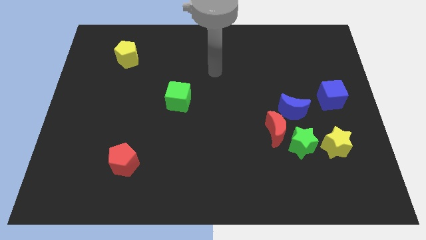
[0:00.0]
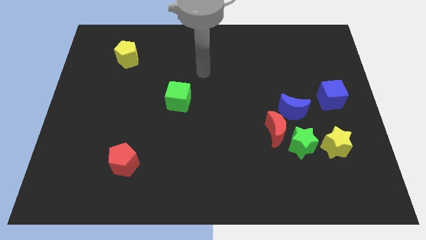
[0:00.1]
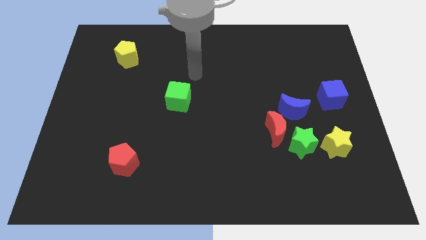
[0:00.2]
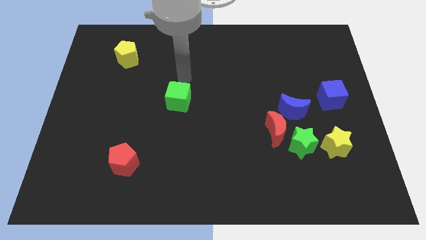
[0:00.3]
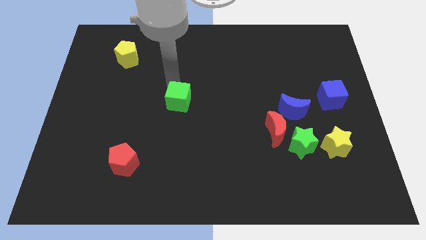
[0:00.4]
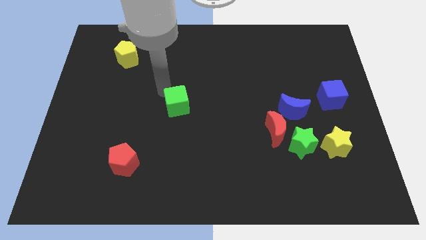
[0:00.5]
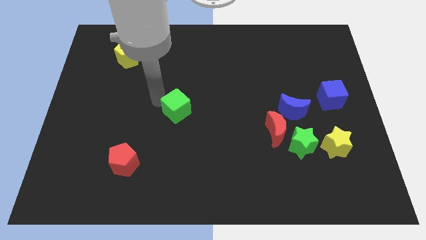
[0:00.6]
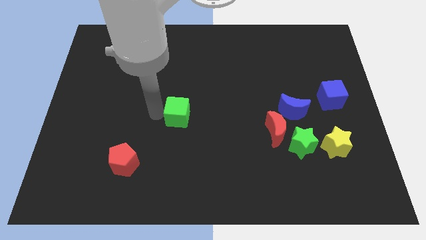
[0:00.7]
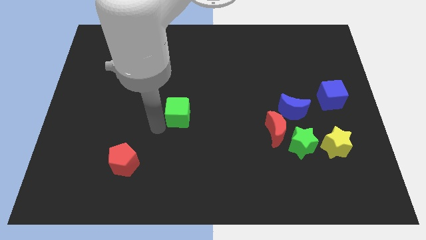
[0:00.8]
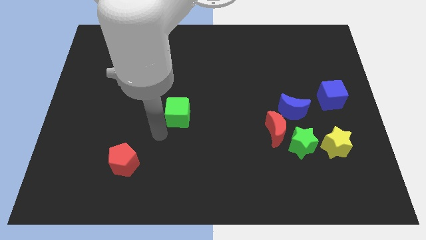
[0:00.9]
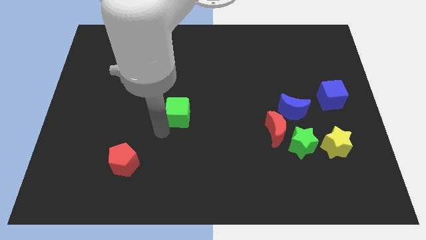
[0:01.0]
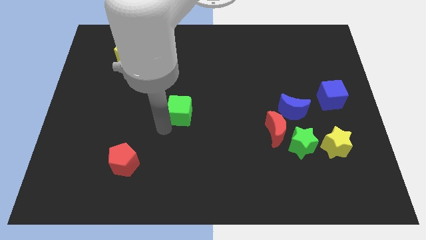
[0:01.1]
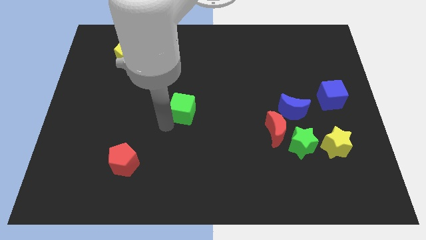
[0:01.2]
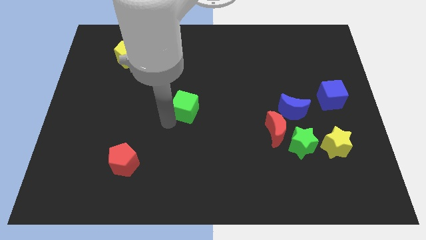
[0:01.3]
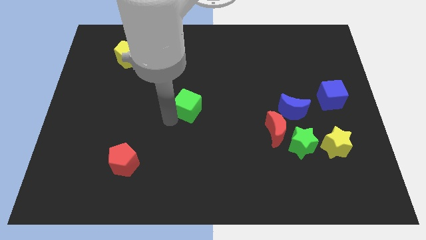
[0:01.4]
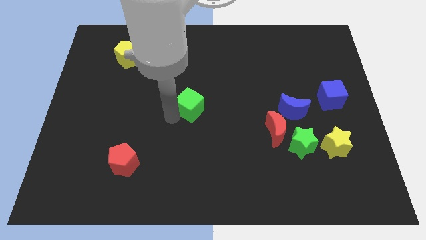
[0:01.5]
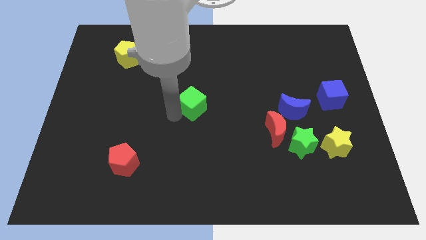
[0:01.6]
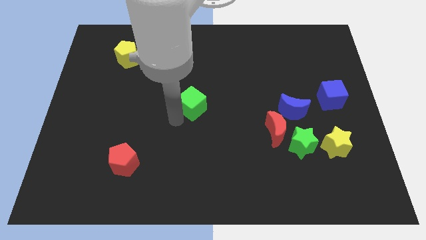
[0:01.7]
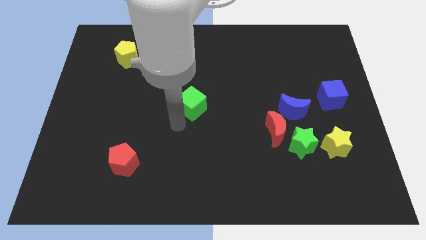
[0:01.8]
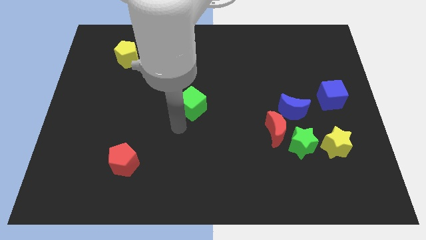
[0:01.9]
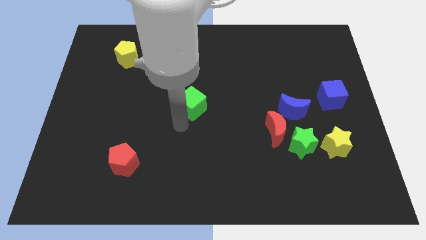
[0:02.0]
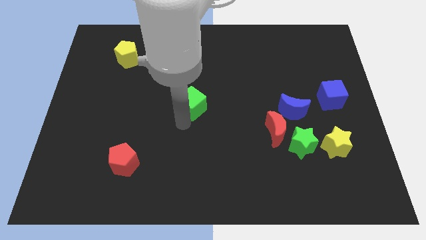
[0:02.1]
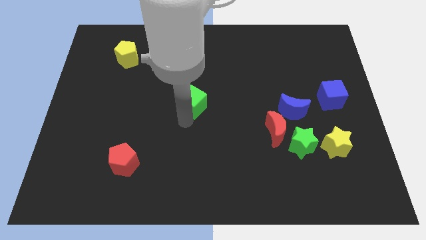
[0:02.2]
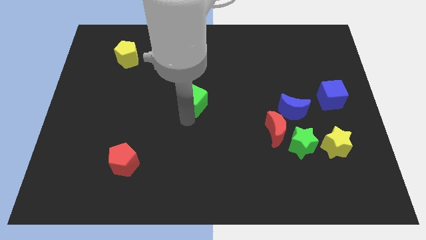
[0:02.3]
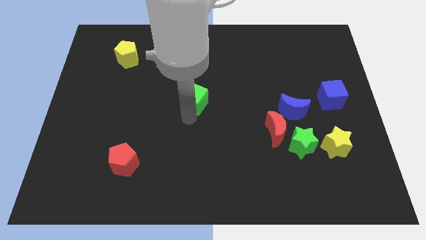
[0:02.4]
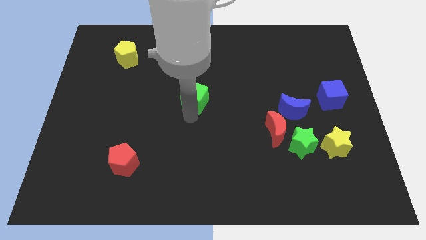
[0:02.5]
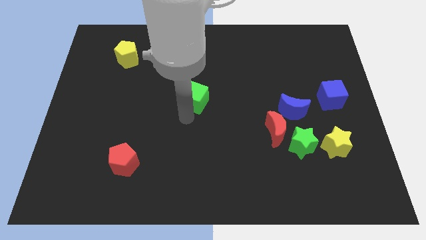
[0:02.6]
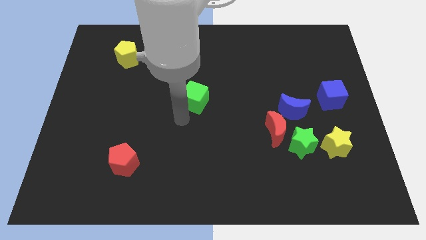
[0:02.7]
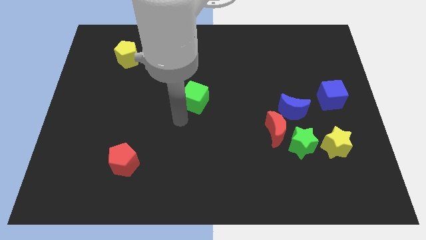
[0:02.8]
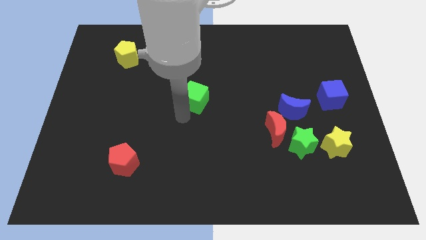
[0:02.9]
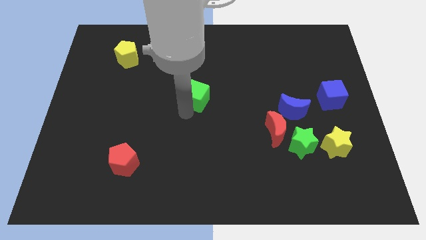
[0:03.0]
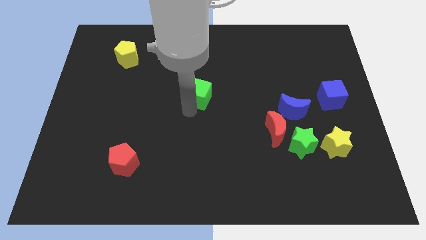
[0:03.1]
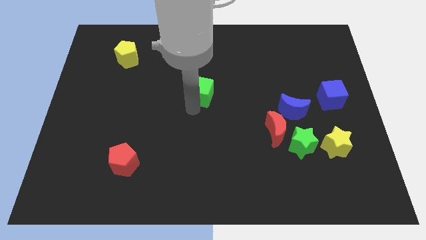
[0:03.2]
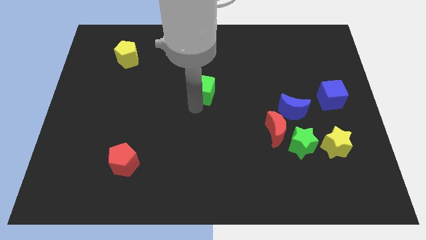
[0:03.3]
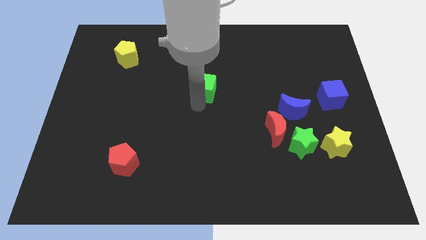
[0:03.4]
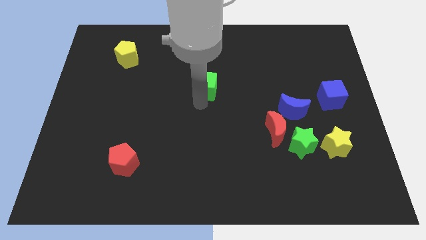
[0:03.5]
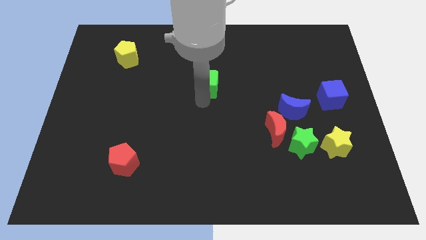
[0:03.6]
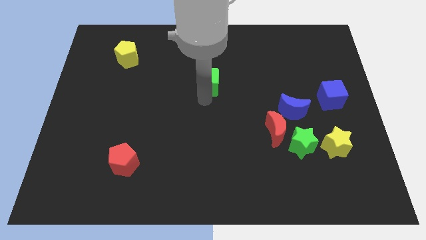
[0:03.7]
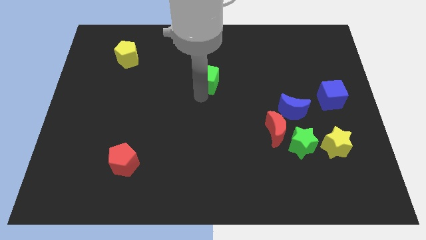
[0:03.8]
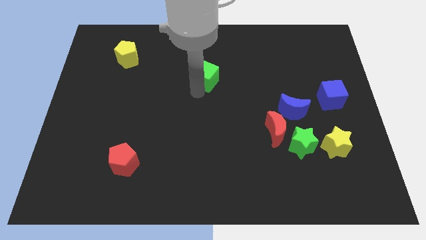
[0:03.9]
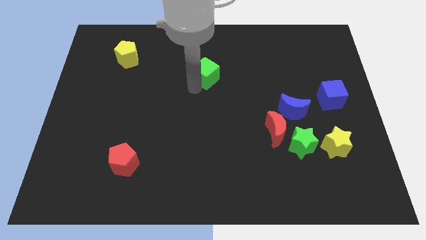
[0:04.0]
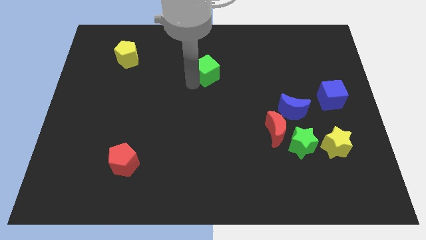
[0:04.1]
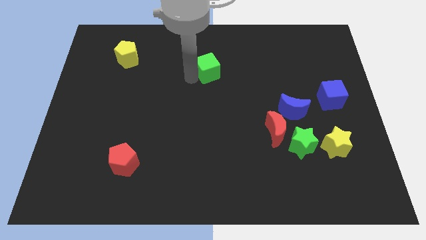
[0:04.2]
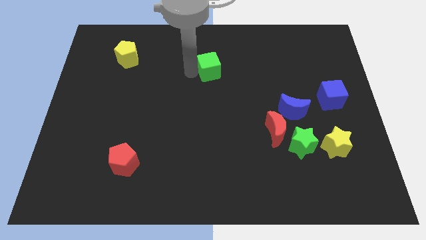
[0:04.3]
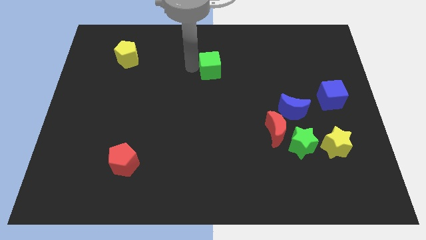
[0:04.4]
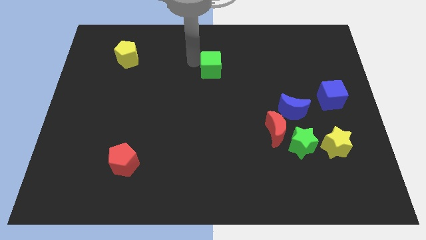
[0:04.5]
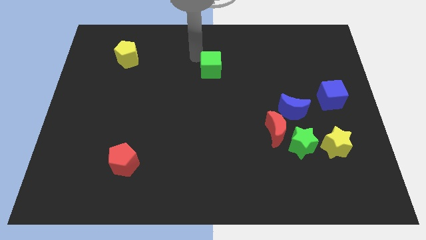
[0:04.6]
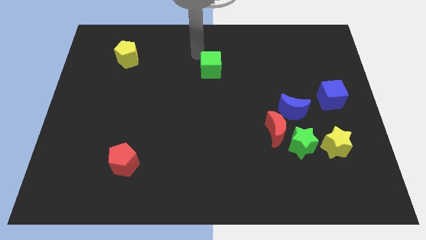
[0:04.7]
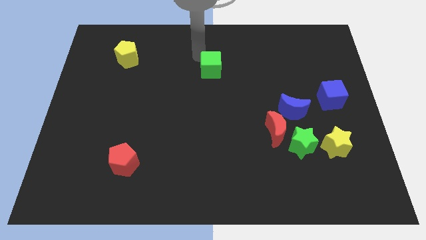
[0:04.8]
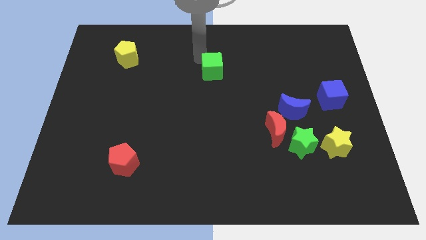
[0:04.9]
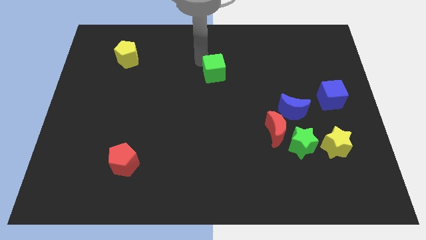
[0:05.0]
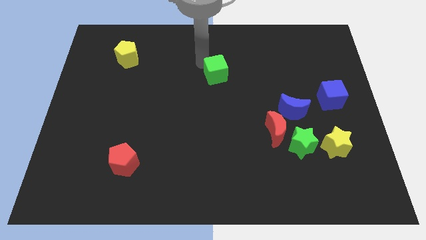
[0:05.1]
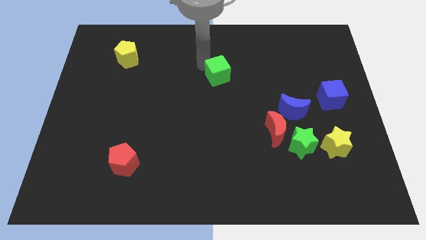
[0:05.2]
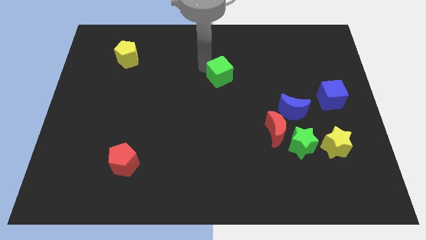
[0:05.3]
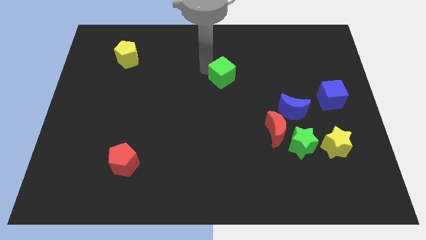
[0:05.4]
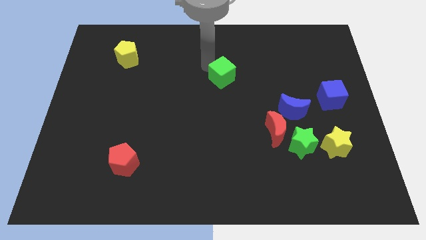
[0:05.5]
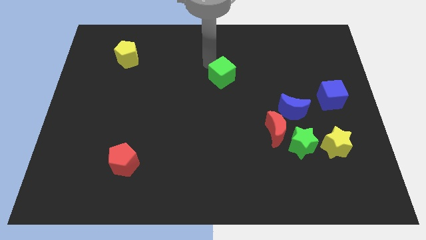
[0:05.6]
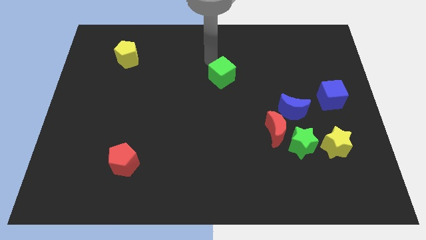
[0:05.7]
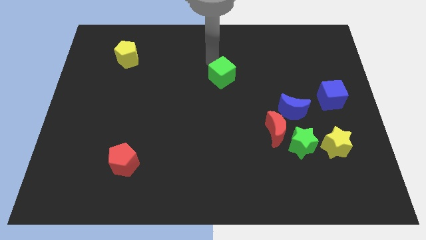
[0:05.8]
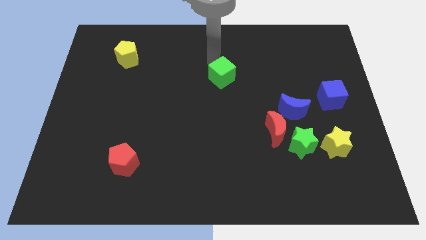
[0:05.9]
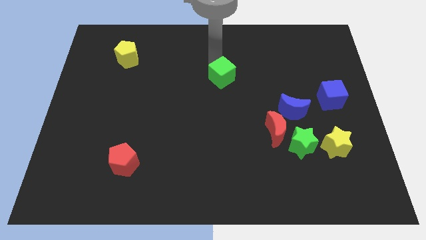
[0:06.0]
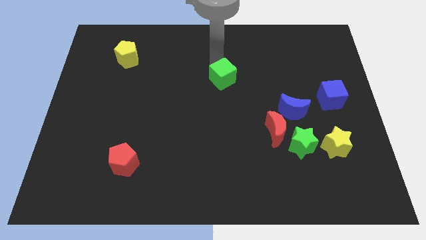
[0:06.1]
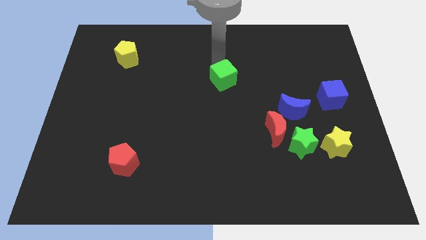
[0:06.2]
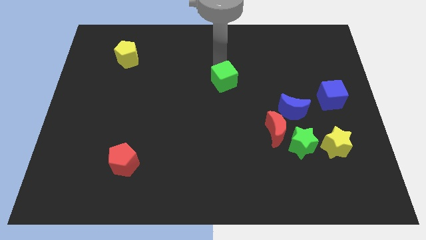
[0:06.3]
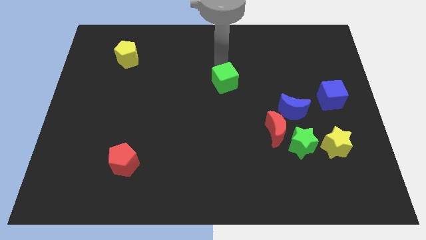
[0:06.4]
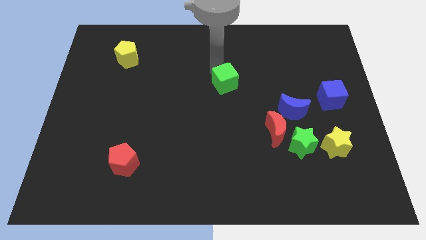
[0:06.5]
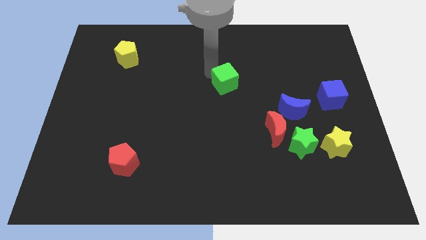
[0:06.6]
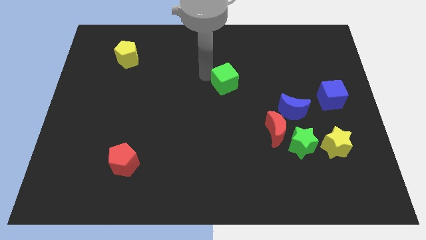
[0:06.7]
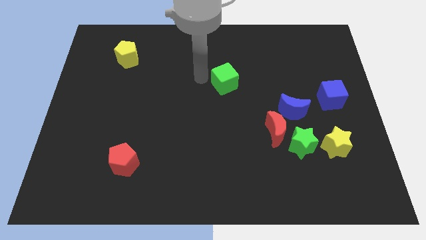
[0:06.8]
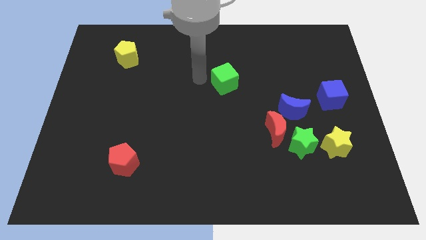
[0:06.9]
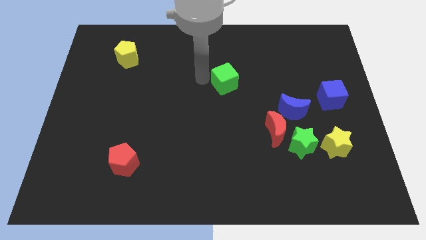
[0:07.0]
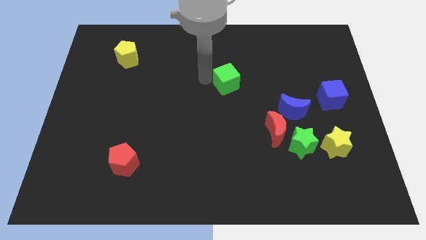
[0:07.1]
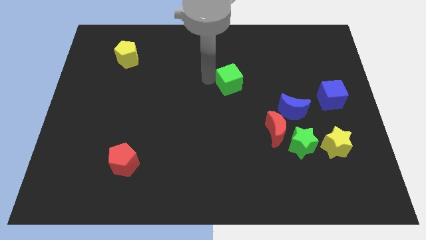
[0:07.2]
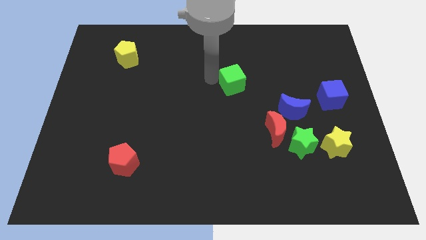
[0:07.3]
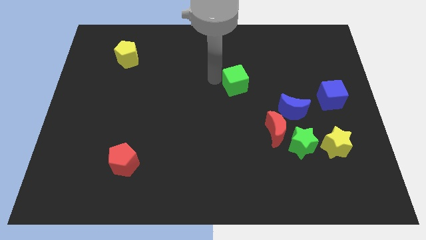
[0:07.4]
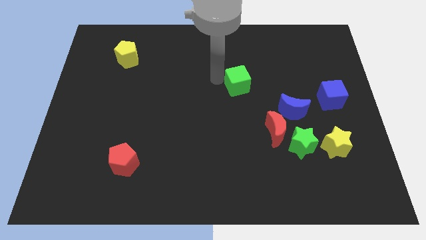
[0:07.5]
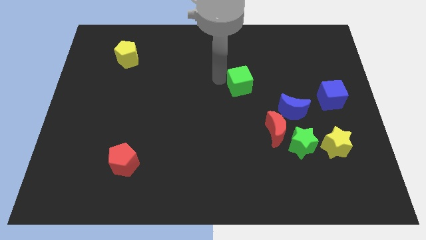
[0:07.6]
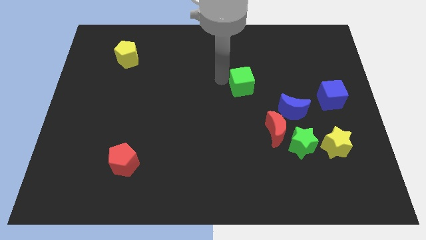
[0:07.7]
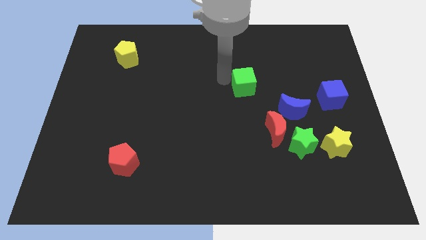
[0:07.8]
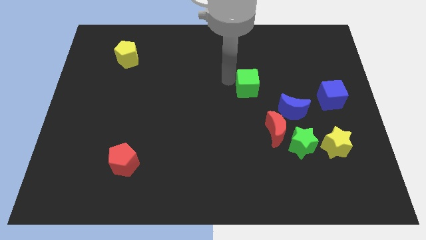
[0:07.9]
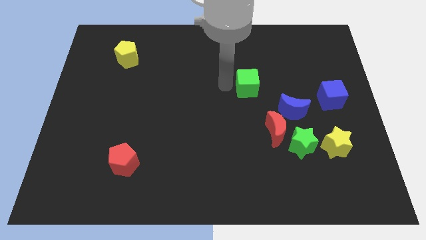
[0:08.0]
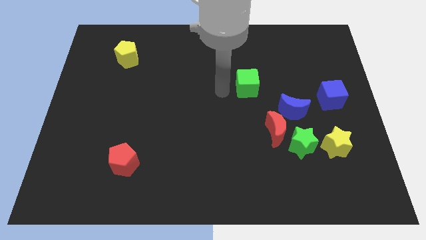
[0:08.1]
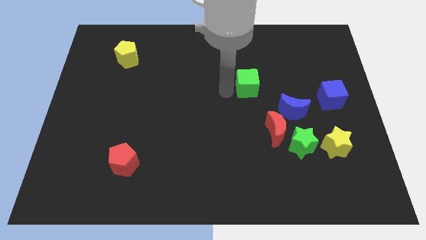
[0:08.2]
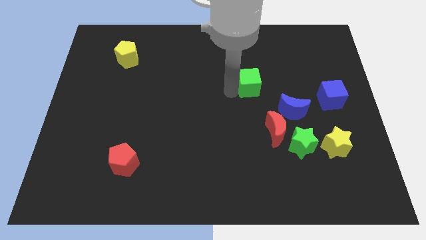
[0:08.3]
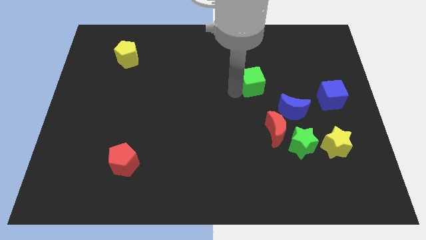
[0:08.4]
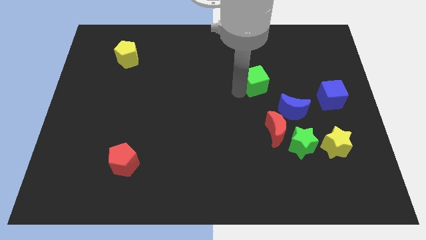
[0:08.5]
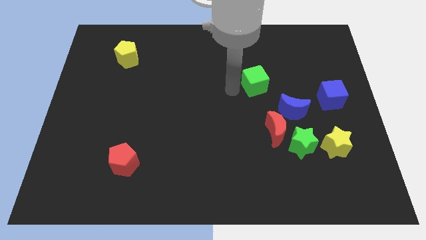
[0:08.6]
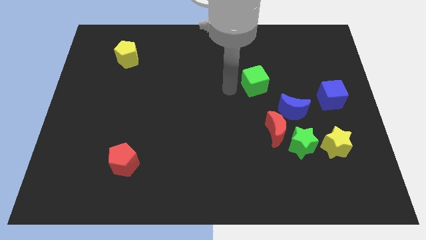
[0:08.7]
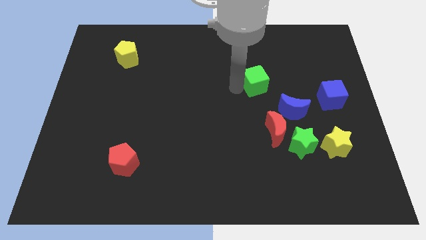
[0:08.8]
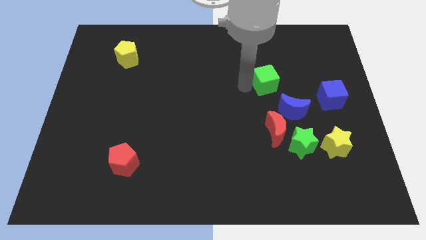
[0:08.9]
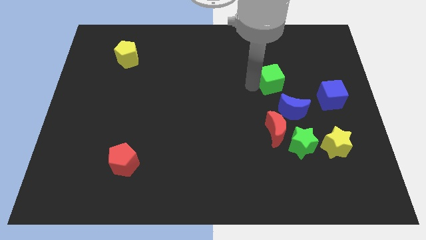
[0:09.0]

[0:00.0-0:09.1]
push the green cube to the top side of the blue moon
